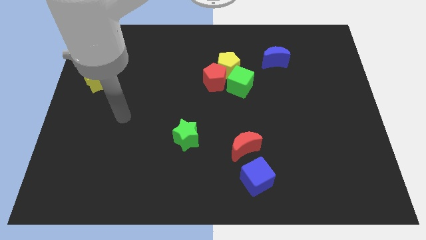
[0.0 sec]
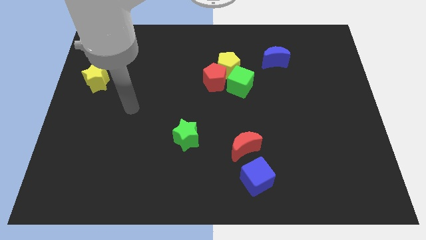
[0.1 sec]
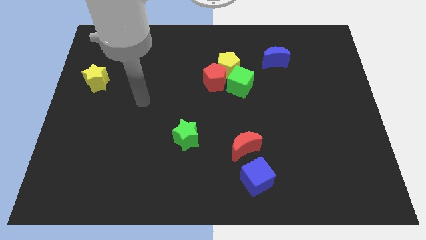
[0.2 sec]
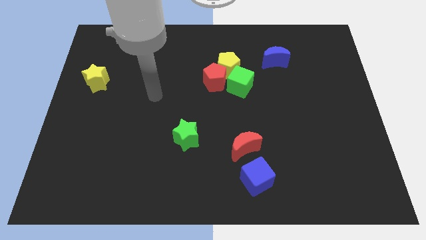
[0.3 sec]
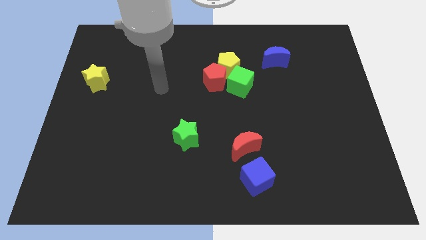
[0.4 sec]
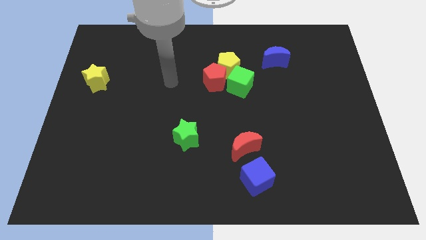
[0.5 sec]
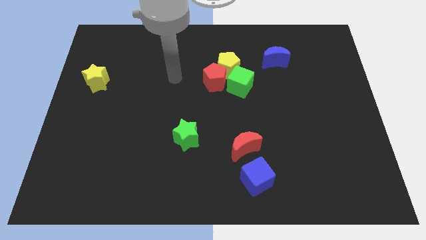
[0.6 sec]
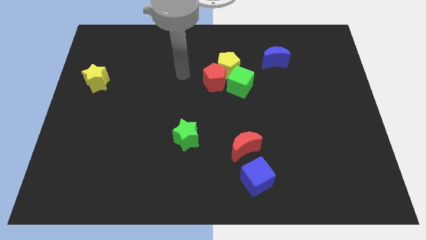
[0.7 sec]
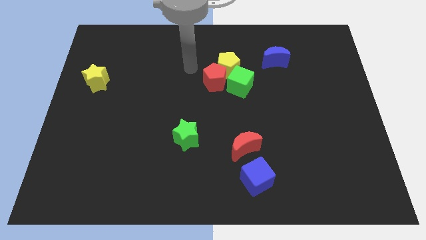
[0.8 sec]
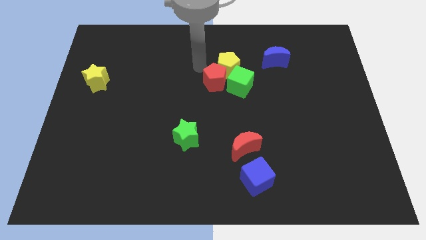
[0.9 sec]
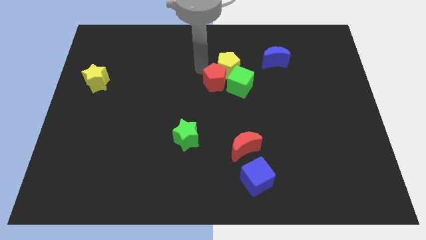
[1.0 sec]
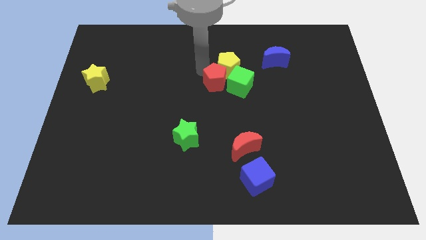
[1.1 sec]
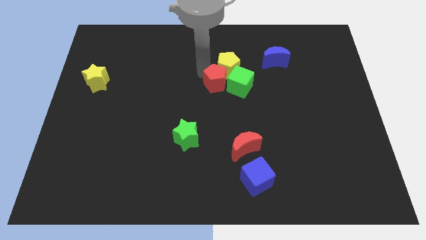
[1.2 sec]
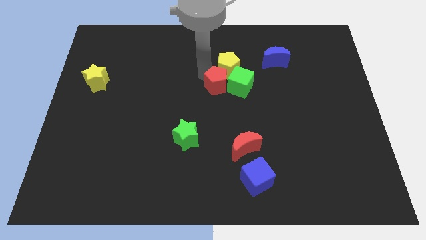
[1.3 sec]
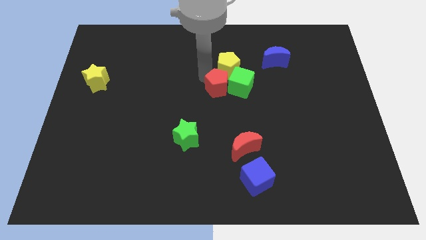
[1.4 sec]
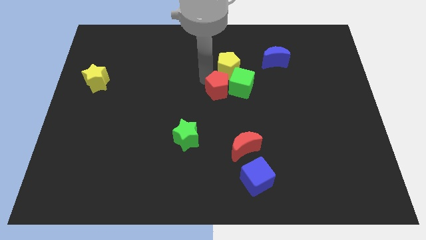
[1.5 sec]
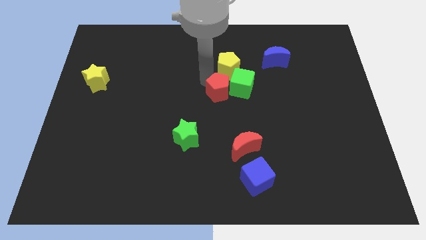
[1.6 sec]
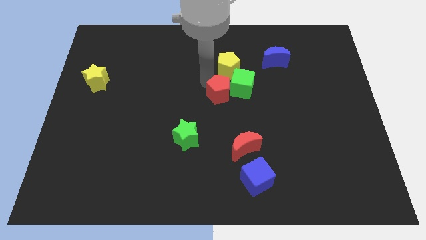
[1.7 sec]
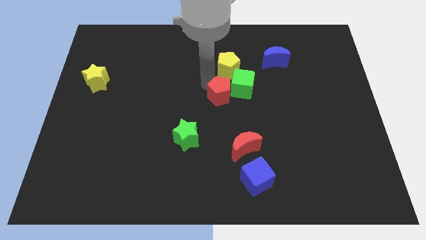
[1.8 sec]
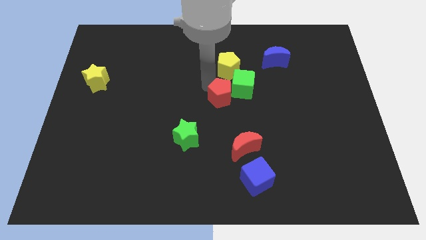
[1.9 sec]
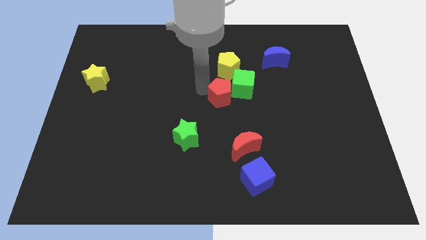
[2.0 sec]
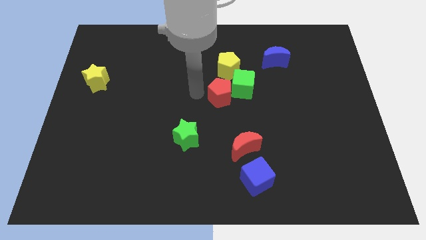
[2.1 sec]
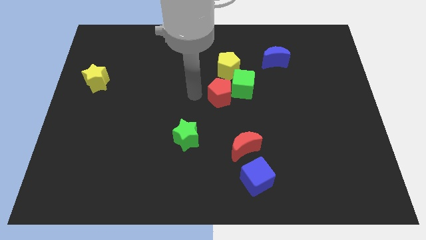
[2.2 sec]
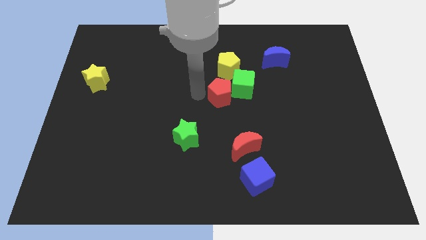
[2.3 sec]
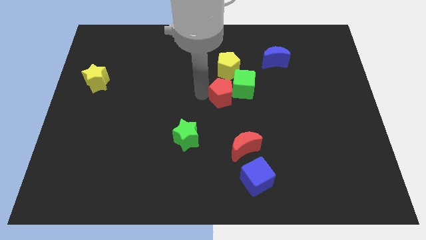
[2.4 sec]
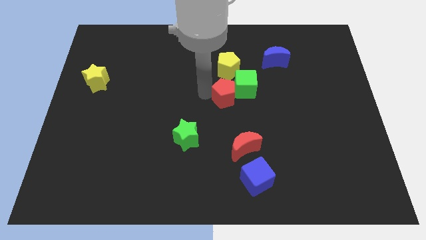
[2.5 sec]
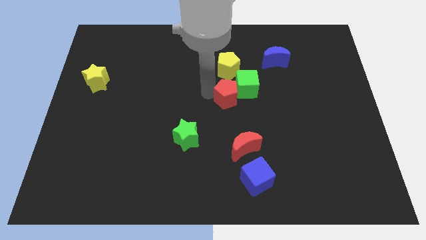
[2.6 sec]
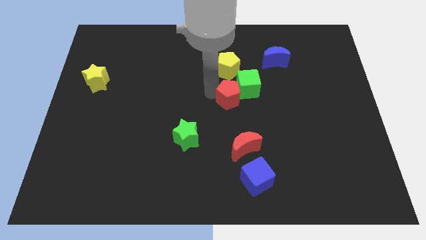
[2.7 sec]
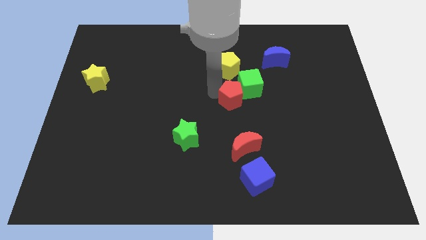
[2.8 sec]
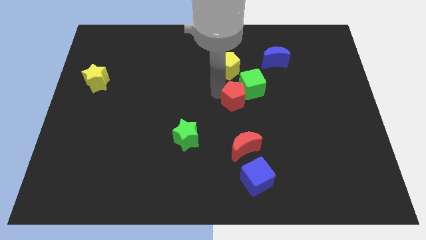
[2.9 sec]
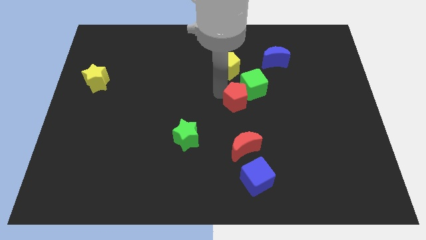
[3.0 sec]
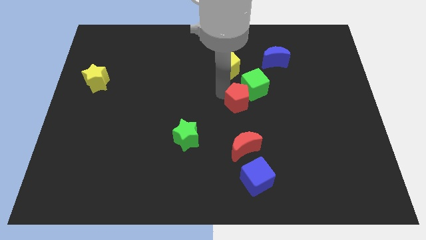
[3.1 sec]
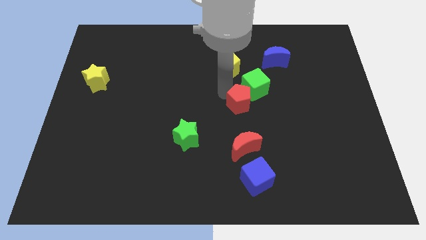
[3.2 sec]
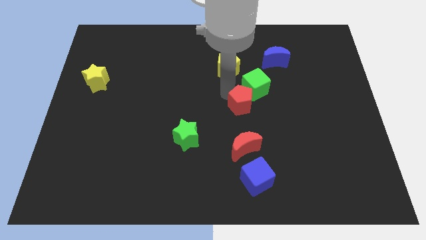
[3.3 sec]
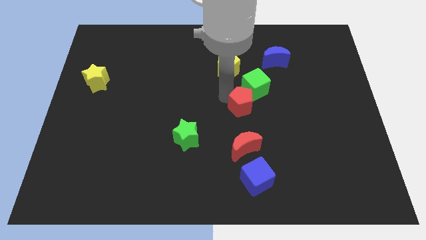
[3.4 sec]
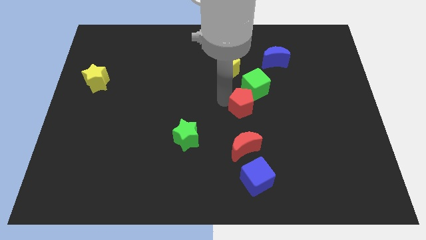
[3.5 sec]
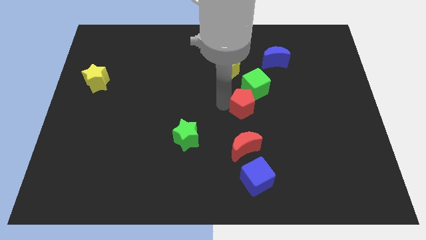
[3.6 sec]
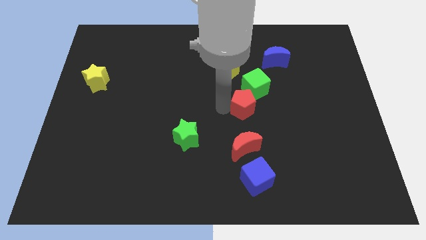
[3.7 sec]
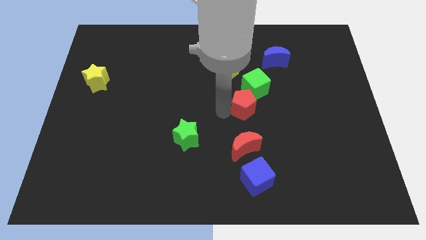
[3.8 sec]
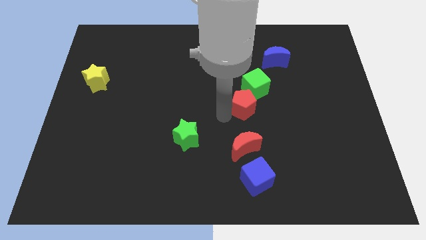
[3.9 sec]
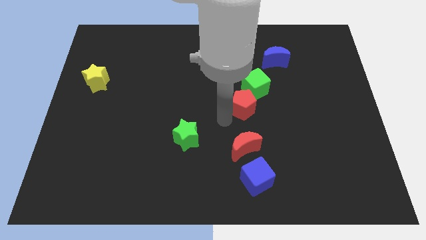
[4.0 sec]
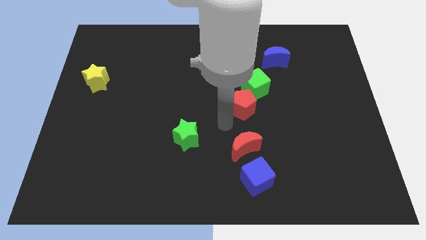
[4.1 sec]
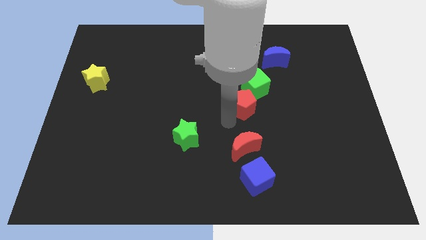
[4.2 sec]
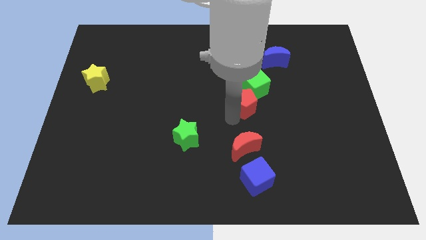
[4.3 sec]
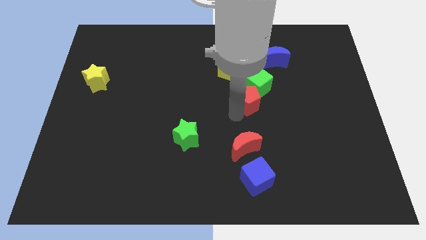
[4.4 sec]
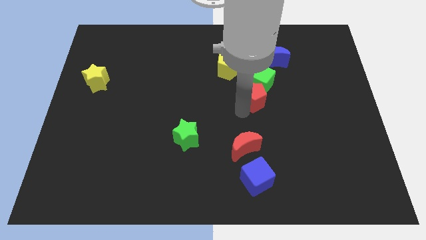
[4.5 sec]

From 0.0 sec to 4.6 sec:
slide the red pentagon to the bottom right of the yellow pentagon

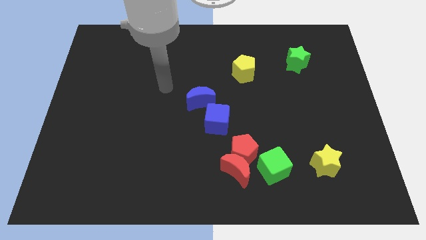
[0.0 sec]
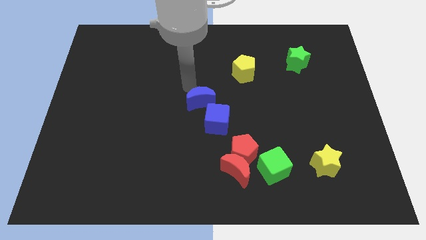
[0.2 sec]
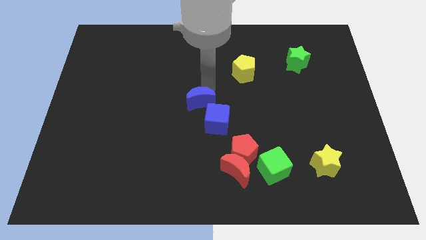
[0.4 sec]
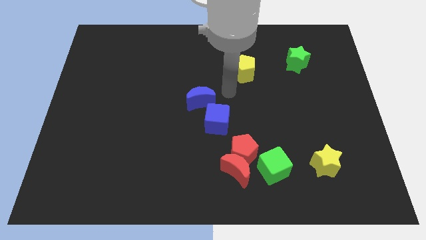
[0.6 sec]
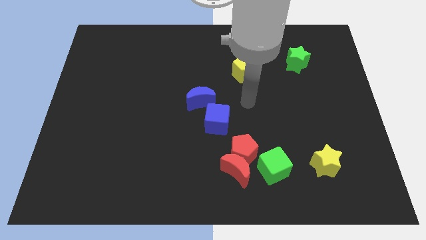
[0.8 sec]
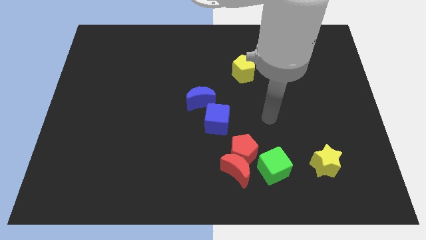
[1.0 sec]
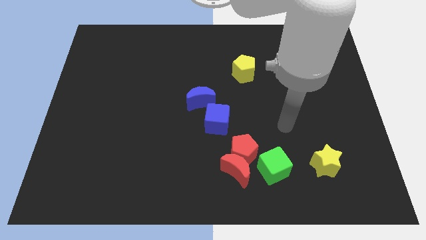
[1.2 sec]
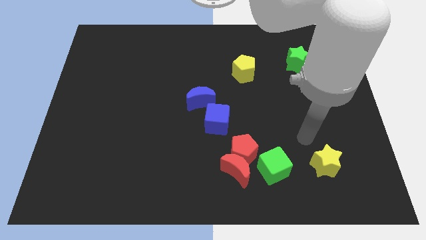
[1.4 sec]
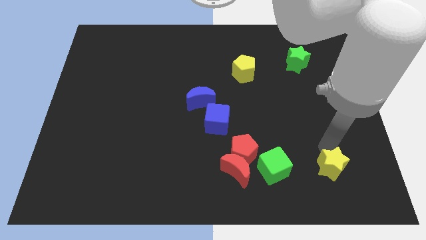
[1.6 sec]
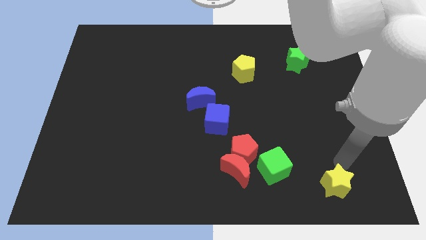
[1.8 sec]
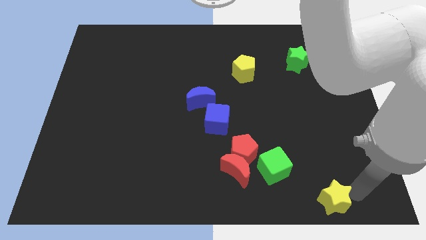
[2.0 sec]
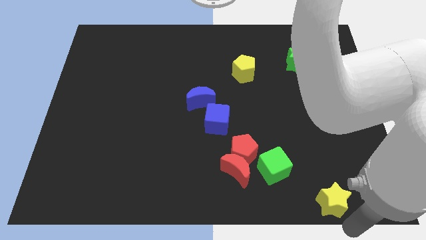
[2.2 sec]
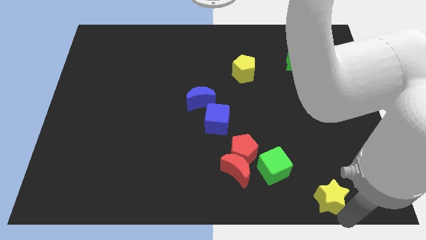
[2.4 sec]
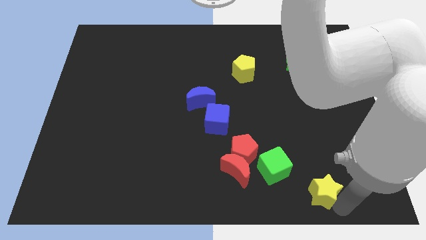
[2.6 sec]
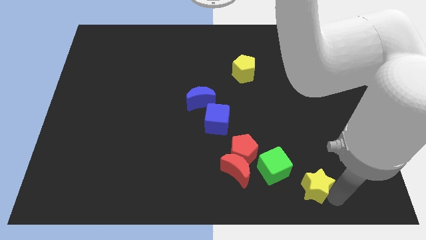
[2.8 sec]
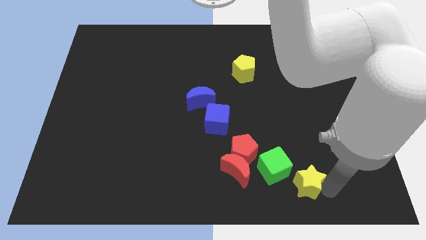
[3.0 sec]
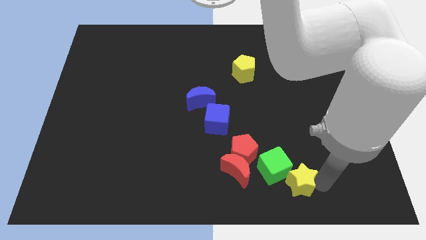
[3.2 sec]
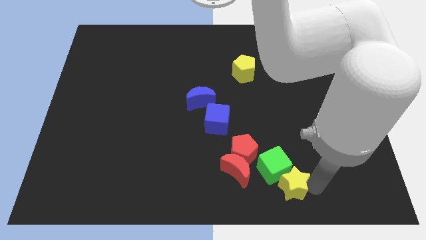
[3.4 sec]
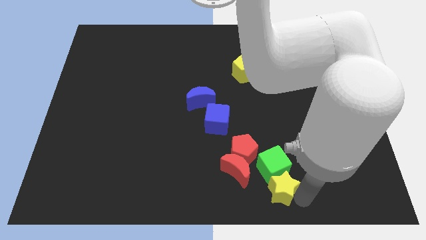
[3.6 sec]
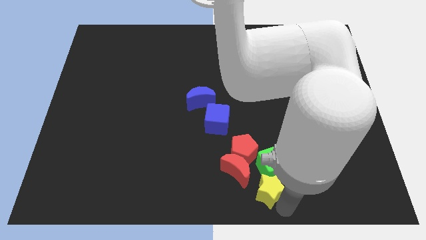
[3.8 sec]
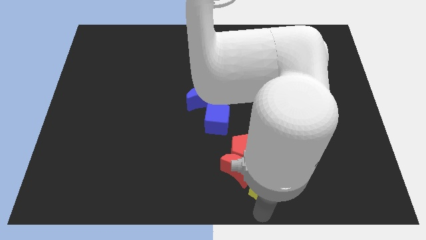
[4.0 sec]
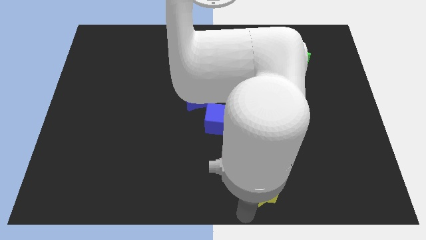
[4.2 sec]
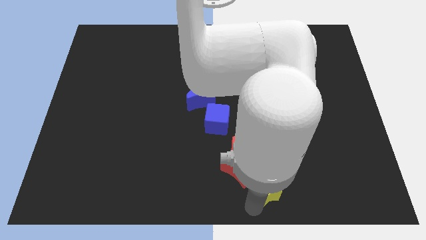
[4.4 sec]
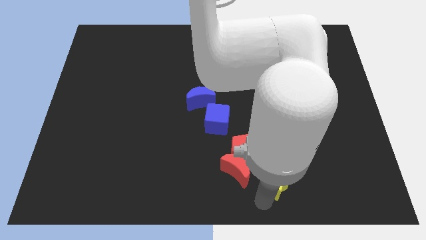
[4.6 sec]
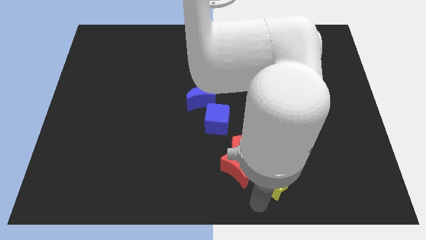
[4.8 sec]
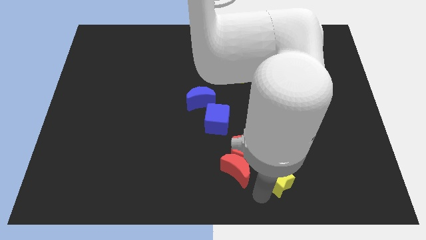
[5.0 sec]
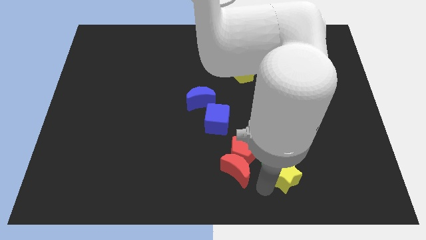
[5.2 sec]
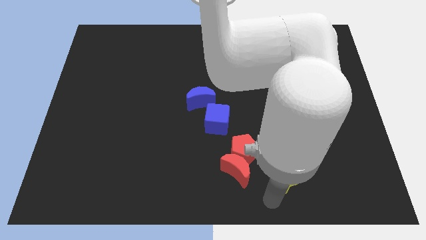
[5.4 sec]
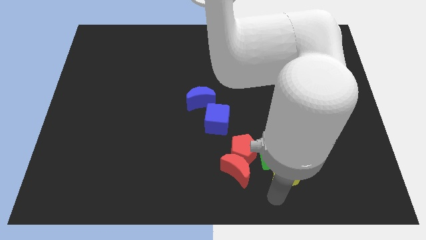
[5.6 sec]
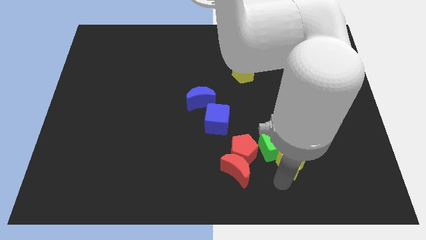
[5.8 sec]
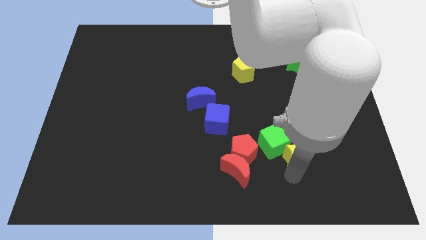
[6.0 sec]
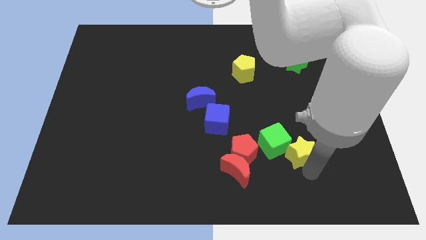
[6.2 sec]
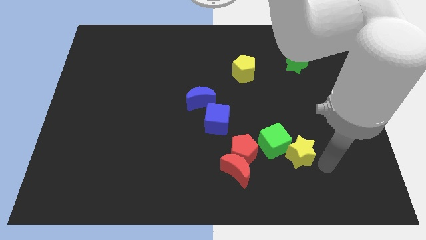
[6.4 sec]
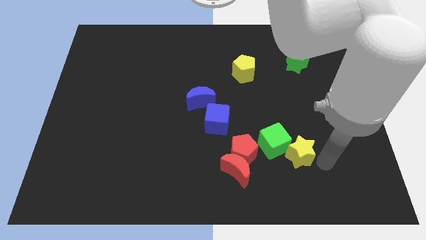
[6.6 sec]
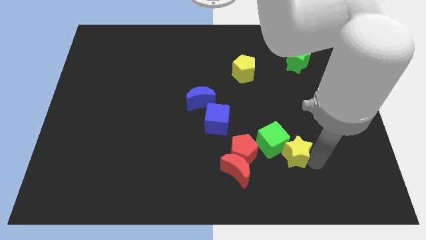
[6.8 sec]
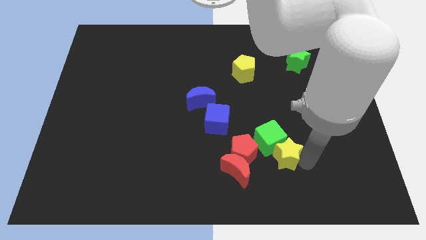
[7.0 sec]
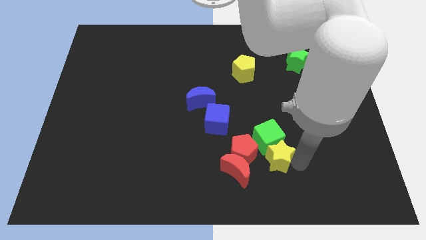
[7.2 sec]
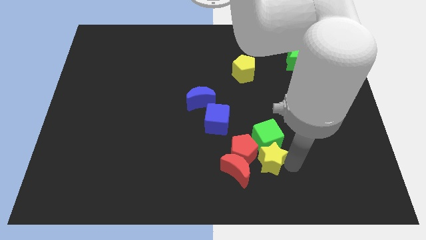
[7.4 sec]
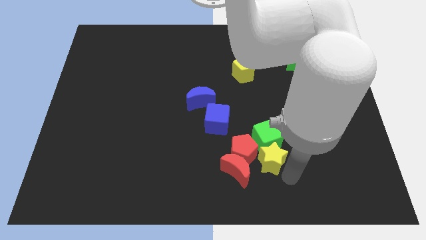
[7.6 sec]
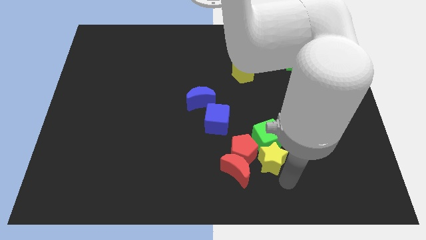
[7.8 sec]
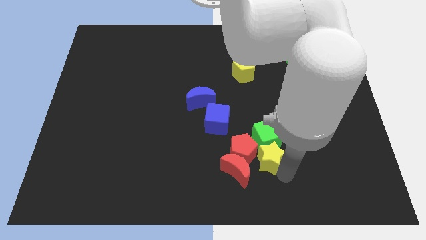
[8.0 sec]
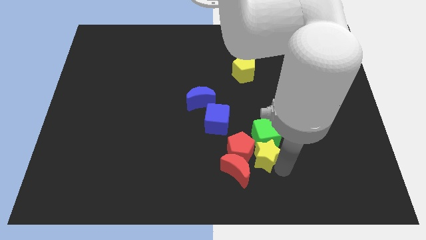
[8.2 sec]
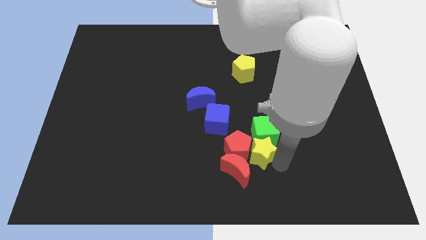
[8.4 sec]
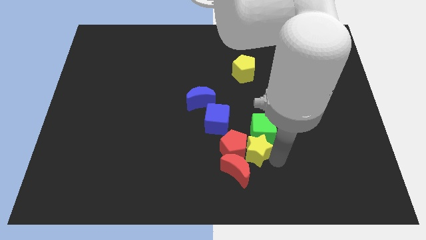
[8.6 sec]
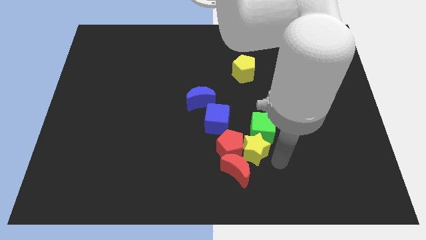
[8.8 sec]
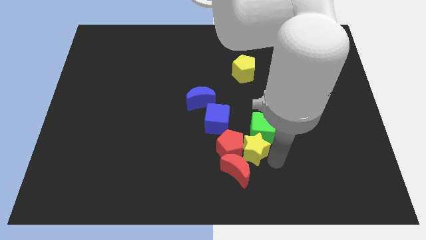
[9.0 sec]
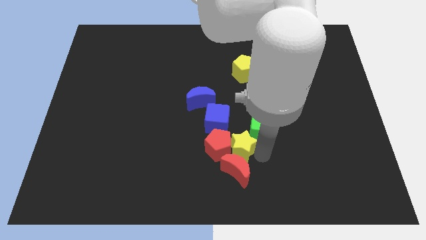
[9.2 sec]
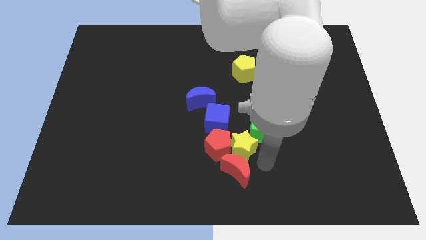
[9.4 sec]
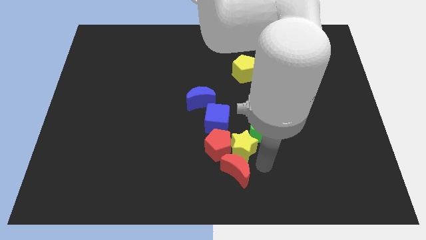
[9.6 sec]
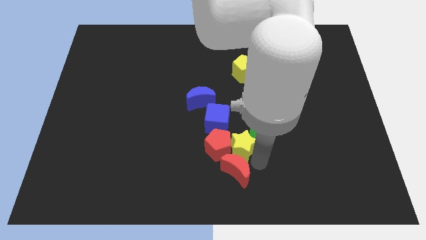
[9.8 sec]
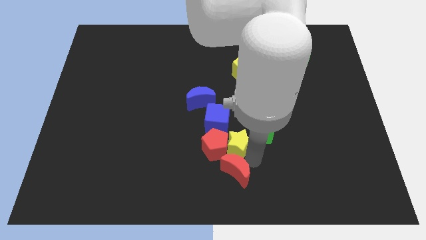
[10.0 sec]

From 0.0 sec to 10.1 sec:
move the yellow star below the blue cube
